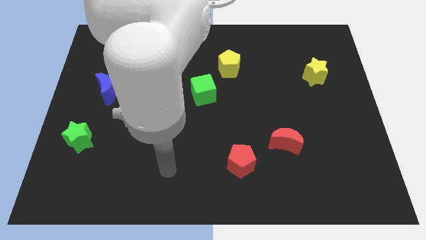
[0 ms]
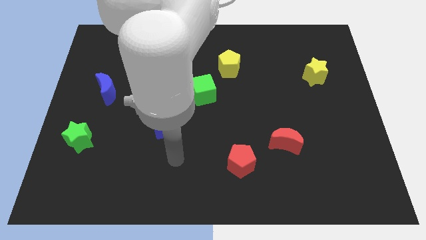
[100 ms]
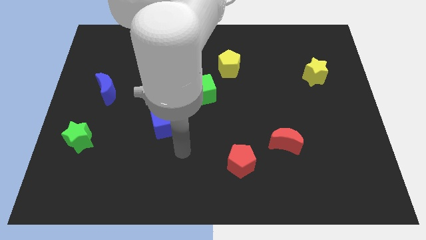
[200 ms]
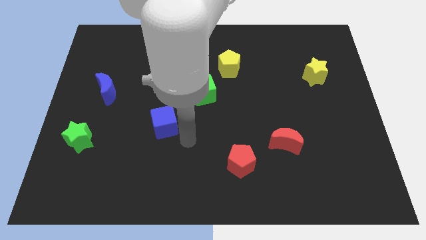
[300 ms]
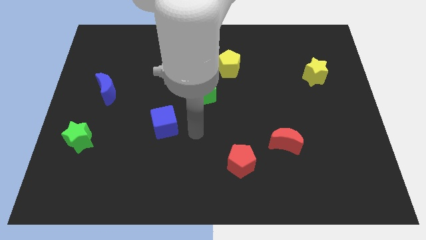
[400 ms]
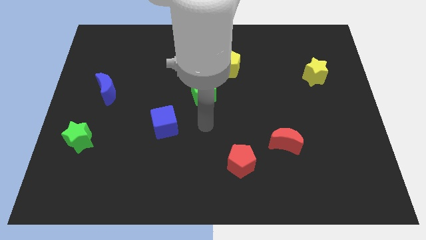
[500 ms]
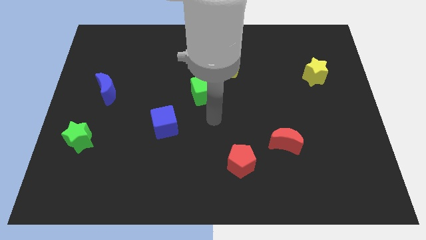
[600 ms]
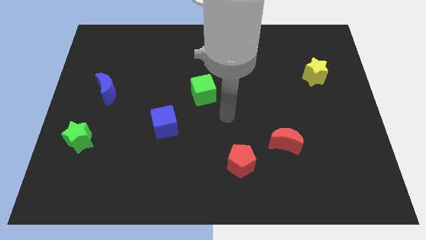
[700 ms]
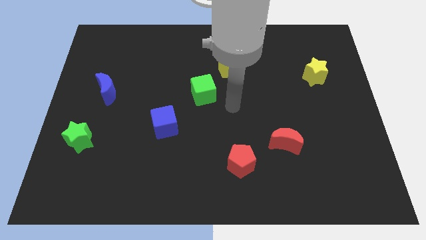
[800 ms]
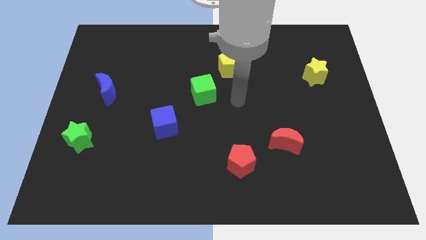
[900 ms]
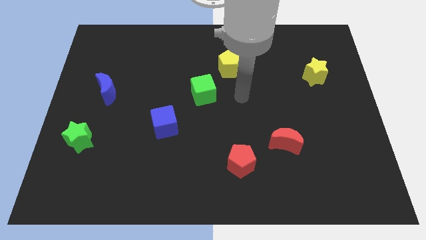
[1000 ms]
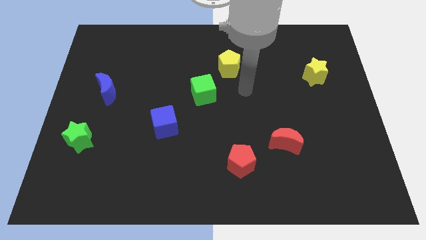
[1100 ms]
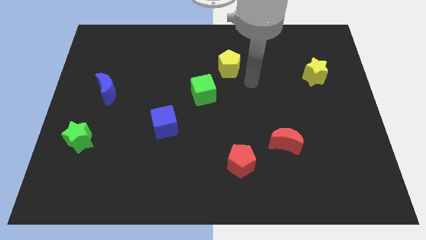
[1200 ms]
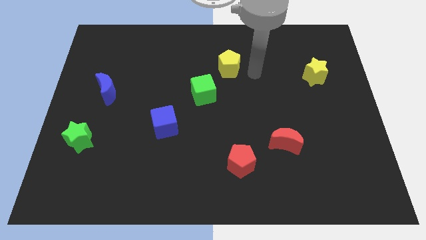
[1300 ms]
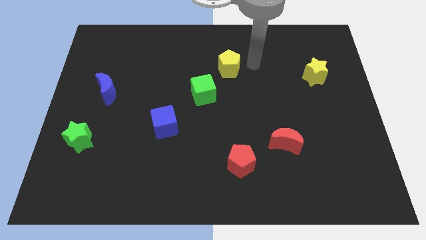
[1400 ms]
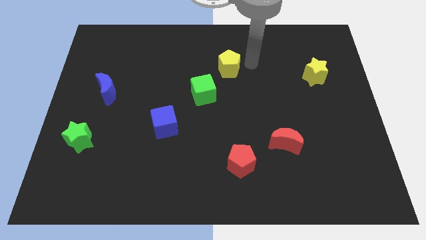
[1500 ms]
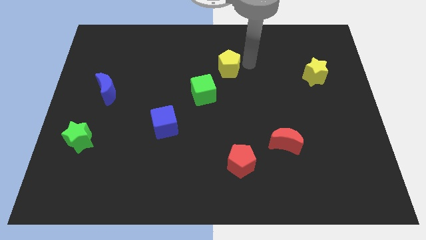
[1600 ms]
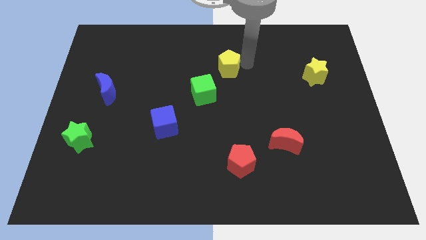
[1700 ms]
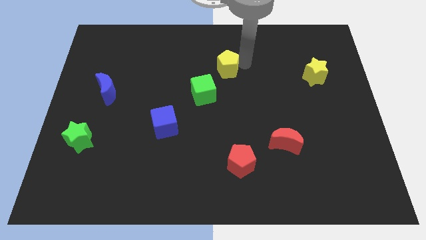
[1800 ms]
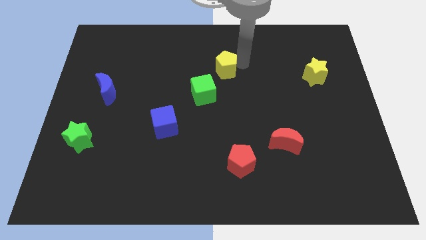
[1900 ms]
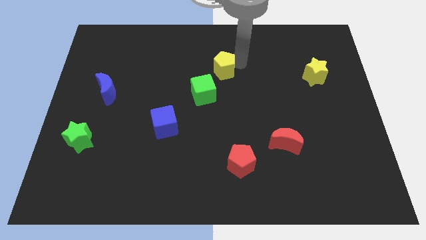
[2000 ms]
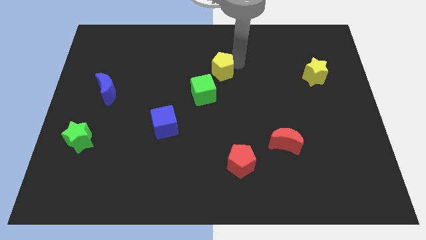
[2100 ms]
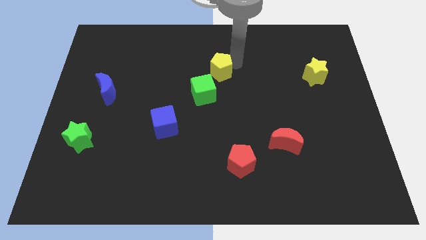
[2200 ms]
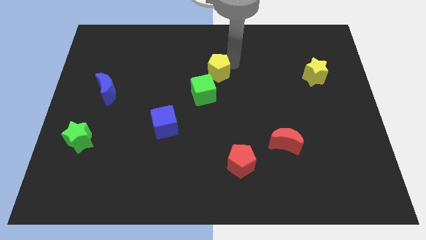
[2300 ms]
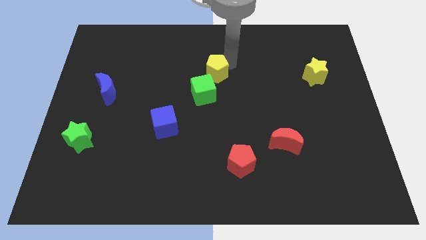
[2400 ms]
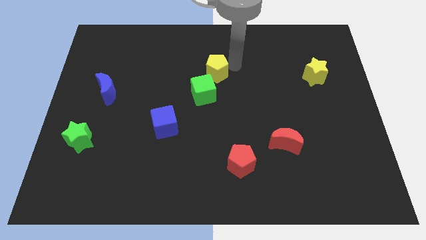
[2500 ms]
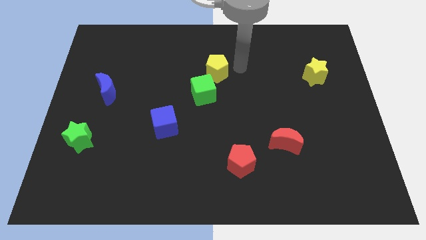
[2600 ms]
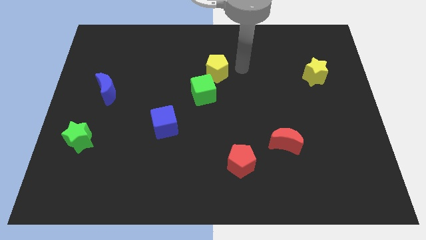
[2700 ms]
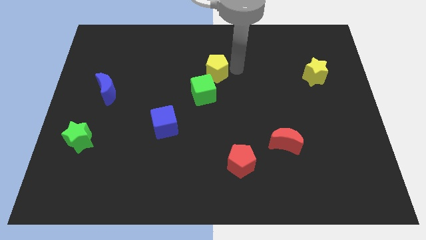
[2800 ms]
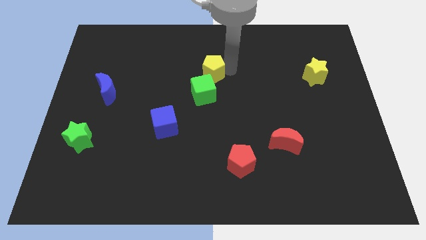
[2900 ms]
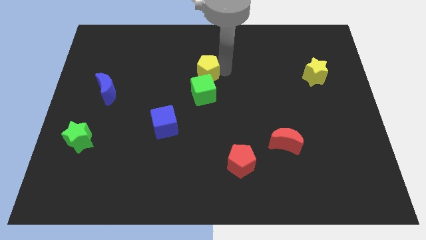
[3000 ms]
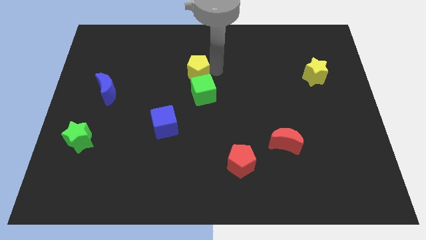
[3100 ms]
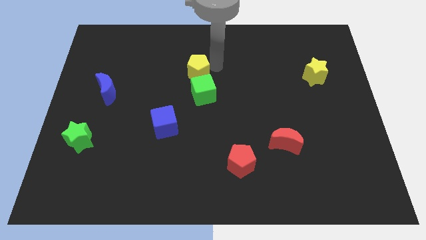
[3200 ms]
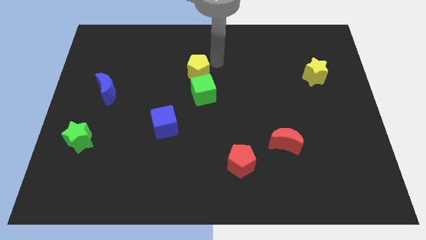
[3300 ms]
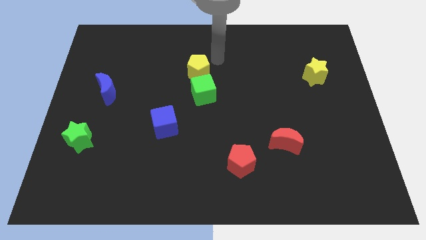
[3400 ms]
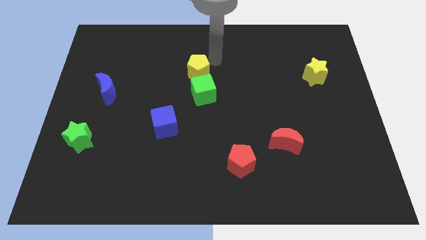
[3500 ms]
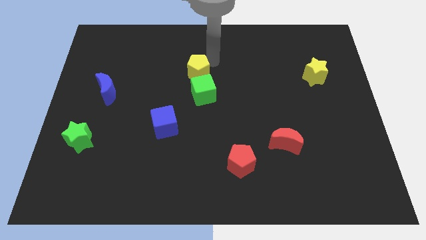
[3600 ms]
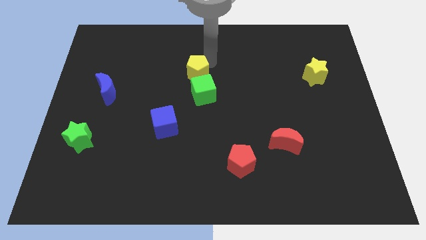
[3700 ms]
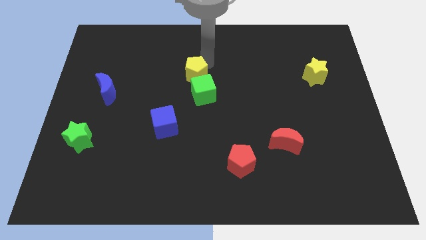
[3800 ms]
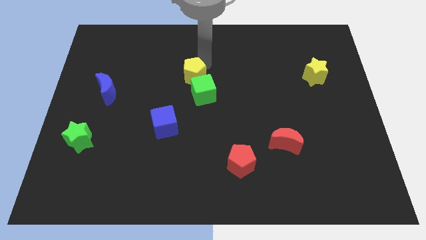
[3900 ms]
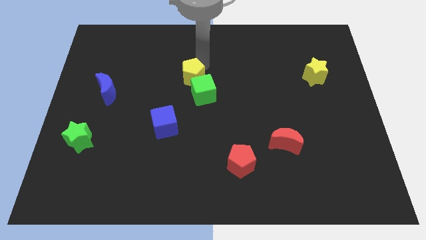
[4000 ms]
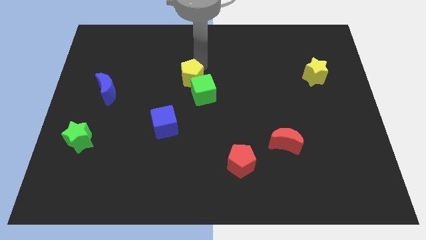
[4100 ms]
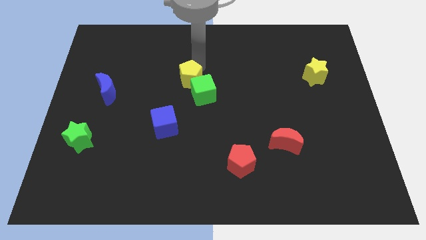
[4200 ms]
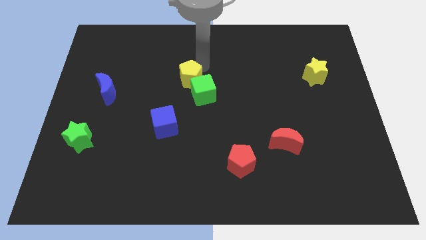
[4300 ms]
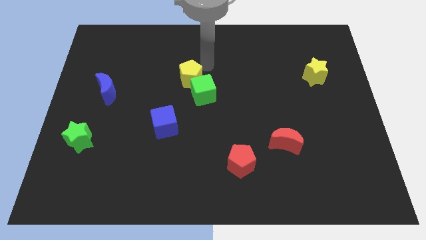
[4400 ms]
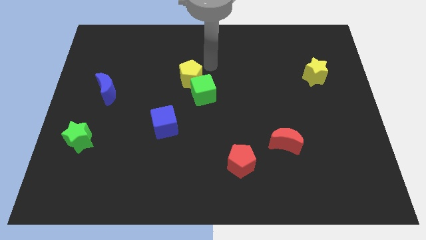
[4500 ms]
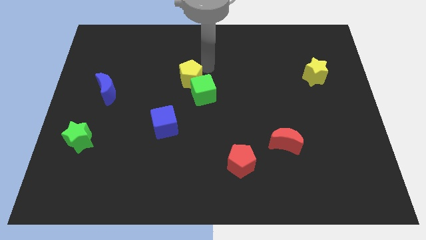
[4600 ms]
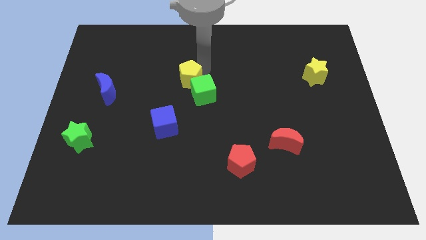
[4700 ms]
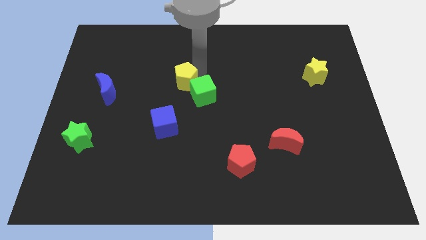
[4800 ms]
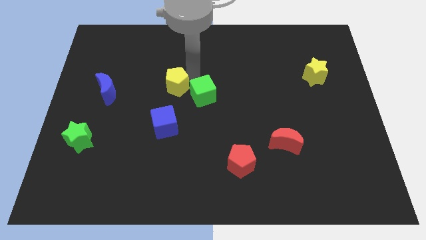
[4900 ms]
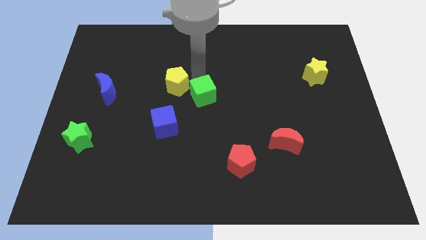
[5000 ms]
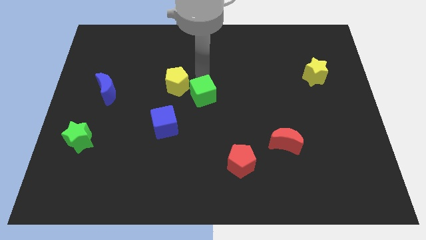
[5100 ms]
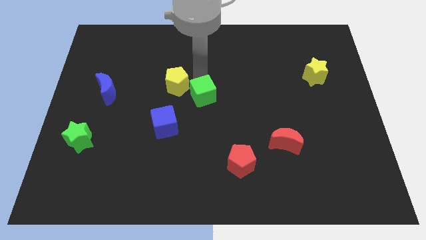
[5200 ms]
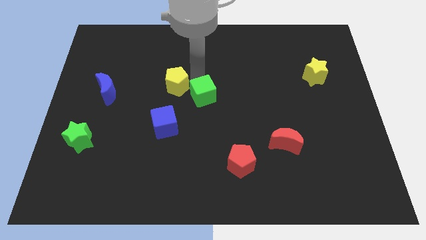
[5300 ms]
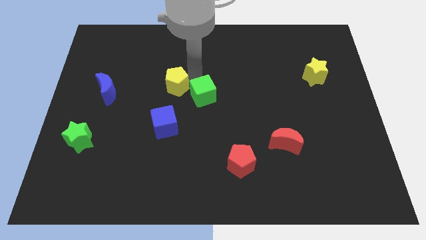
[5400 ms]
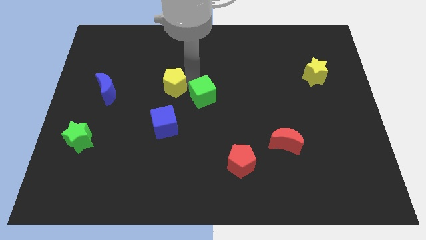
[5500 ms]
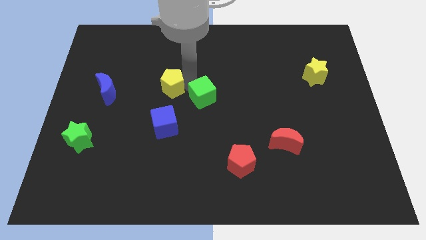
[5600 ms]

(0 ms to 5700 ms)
move the yellow pentagon right of the blue moon

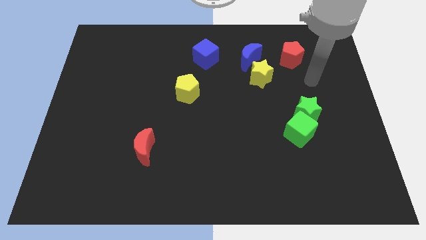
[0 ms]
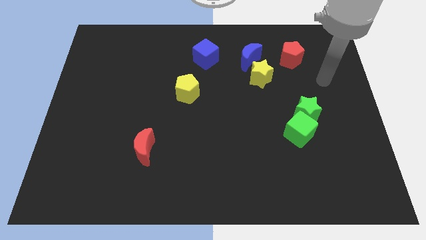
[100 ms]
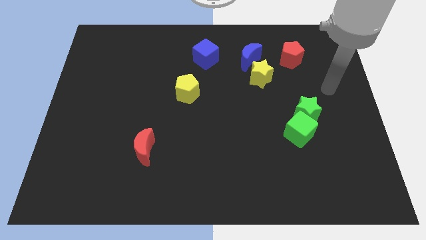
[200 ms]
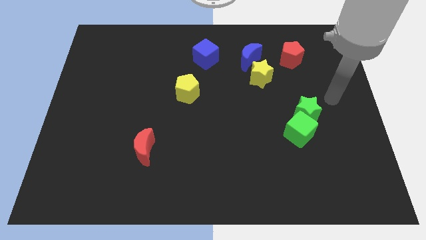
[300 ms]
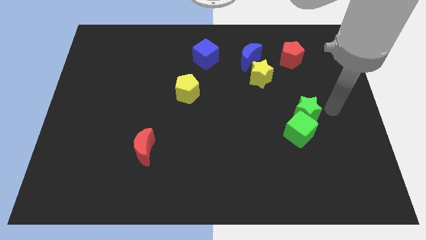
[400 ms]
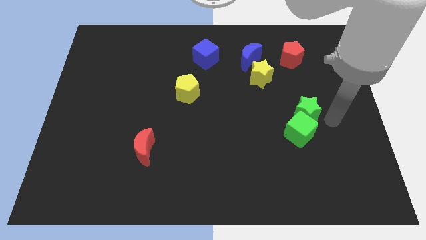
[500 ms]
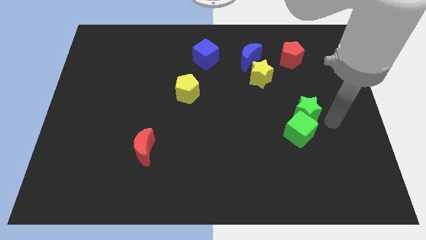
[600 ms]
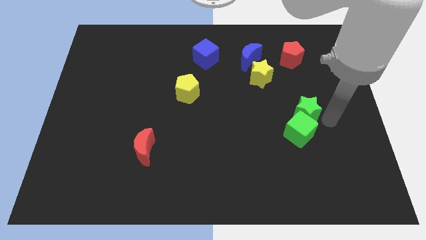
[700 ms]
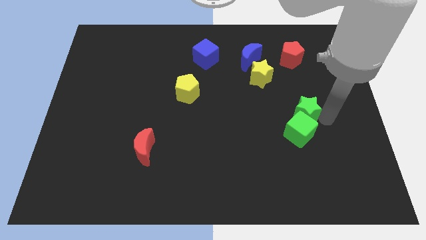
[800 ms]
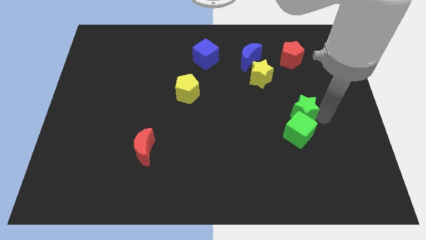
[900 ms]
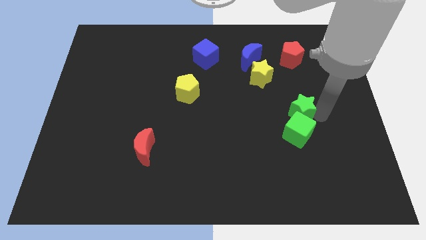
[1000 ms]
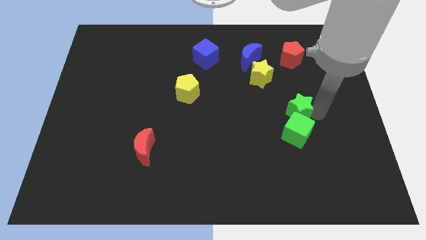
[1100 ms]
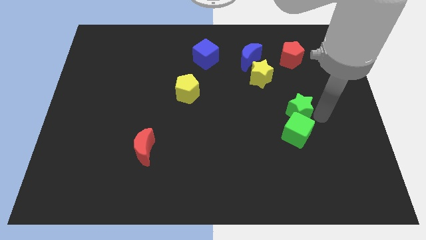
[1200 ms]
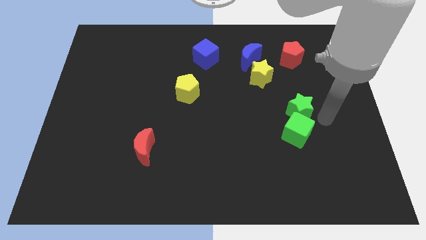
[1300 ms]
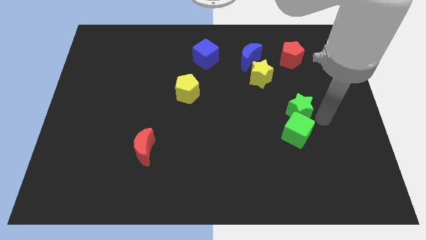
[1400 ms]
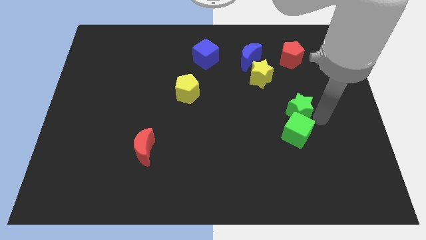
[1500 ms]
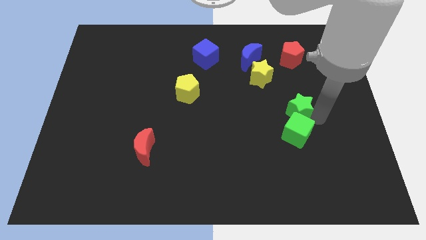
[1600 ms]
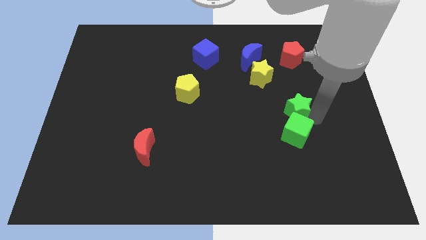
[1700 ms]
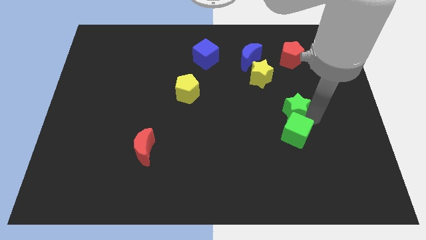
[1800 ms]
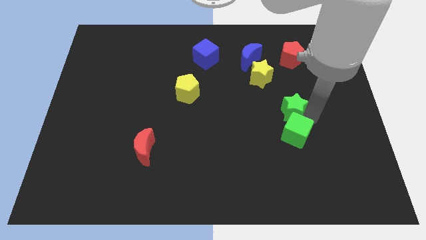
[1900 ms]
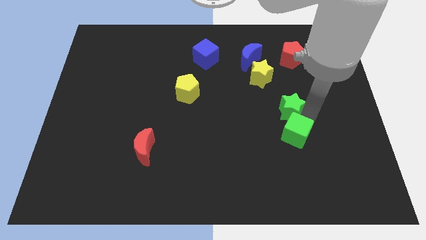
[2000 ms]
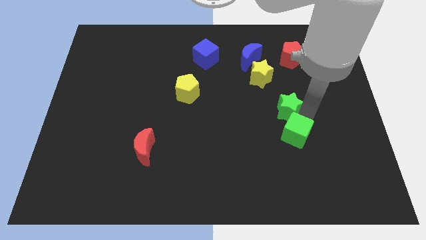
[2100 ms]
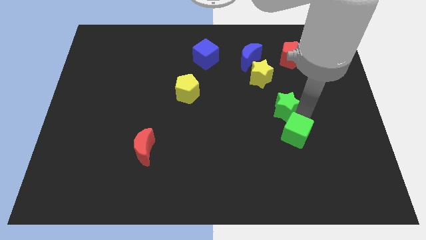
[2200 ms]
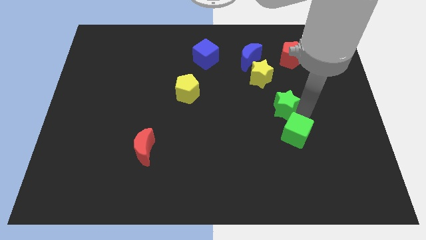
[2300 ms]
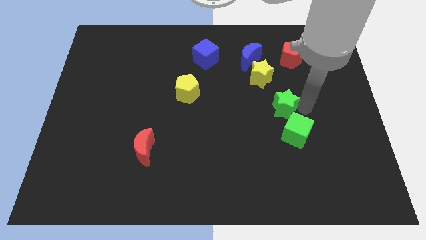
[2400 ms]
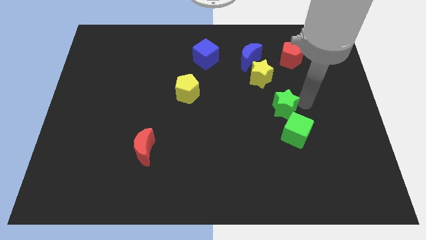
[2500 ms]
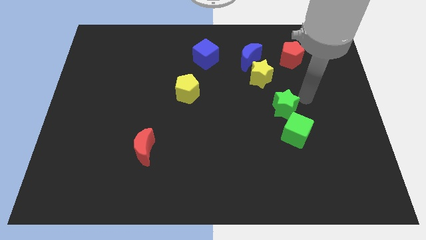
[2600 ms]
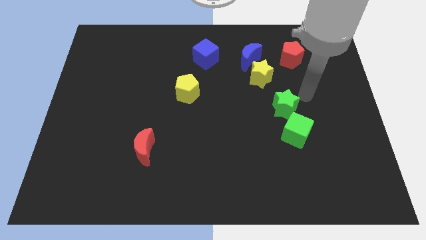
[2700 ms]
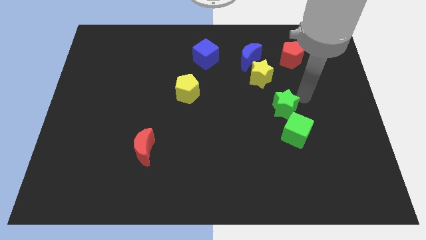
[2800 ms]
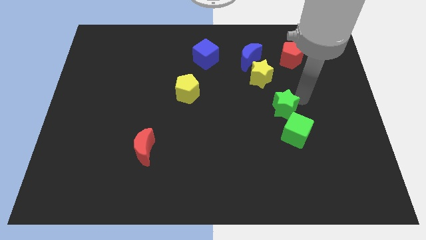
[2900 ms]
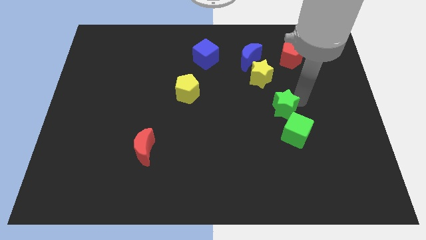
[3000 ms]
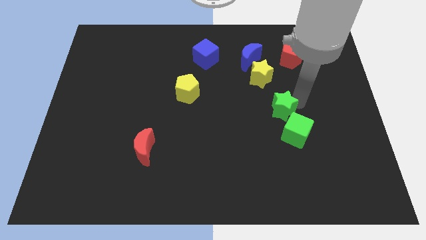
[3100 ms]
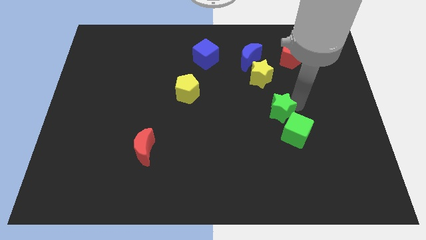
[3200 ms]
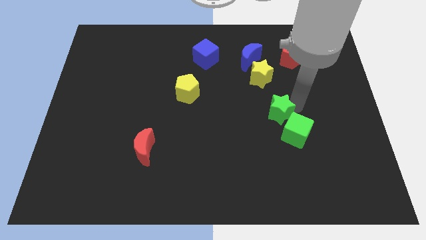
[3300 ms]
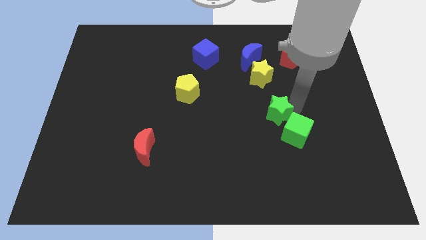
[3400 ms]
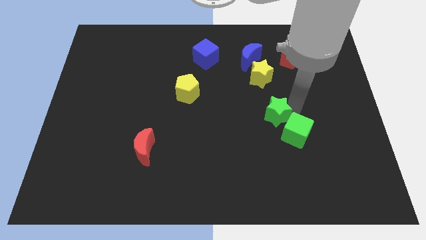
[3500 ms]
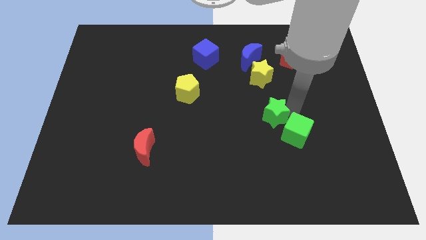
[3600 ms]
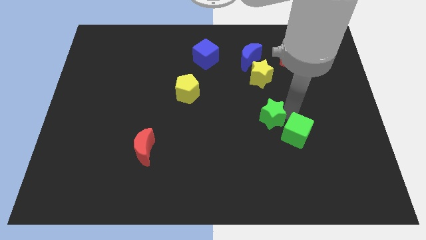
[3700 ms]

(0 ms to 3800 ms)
put the green star left of the green cube
